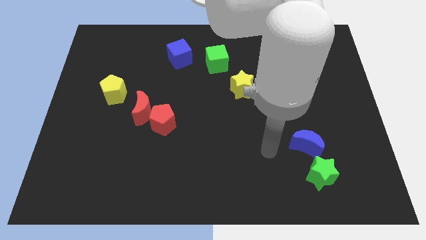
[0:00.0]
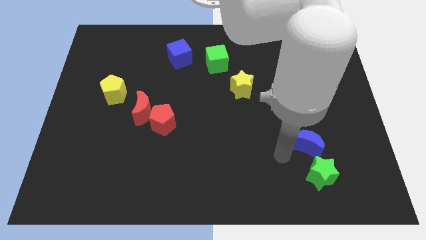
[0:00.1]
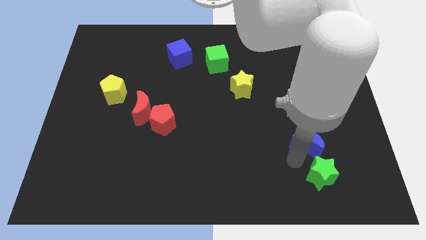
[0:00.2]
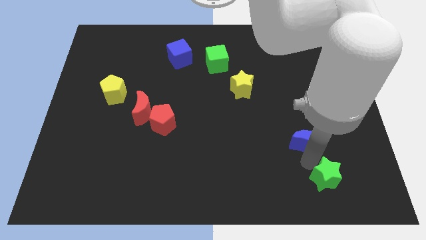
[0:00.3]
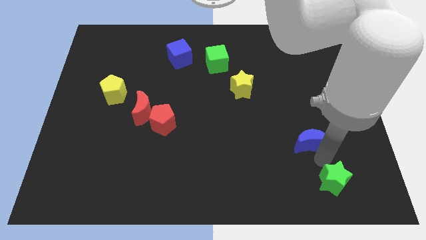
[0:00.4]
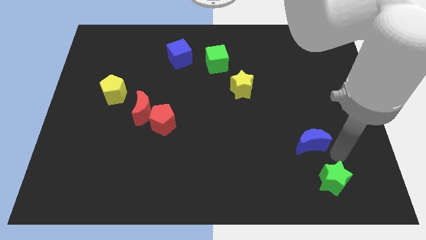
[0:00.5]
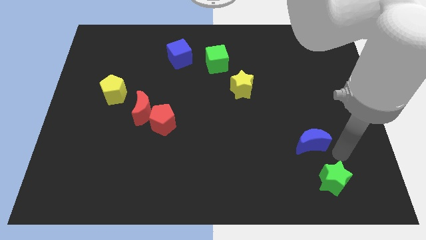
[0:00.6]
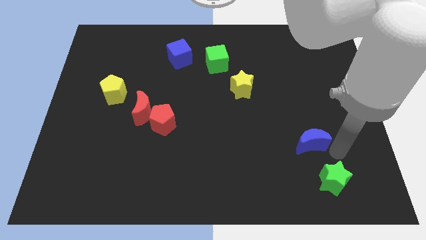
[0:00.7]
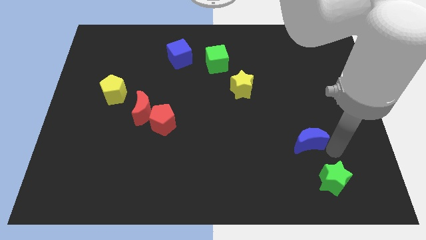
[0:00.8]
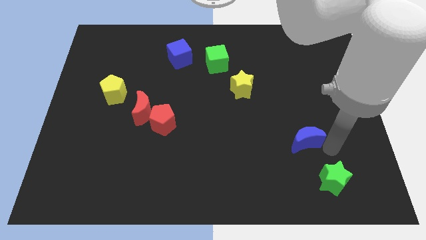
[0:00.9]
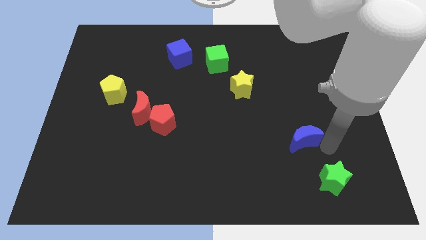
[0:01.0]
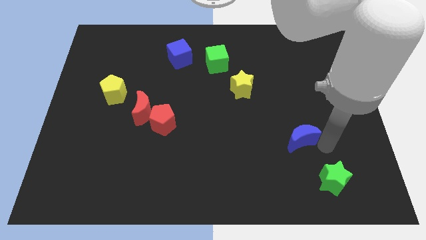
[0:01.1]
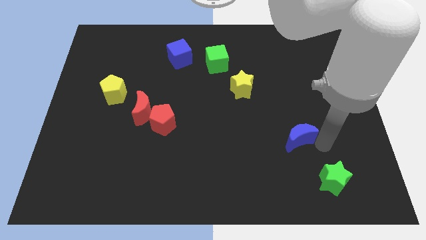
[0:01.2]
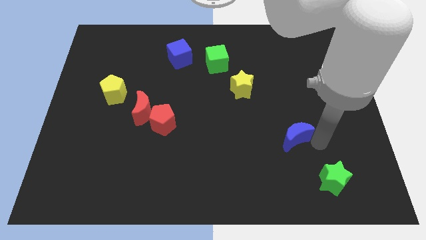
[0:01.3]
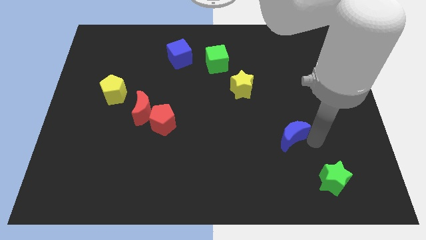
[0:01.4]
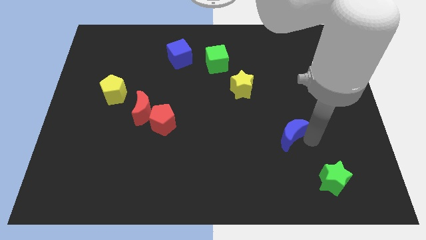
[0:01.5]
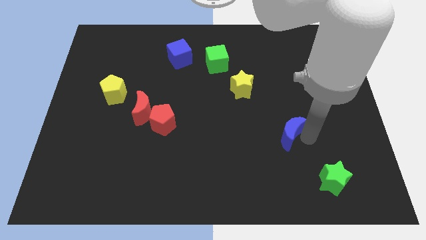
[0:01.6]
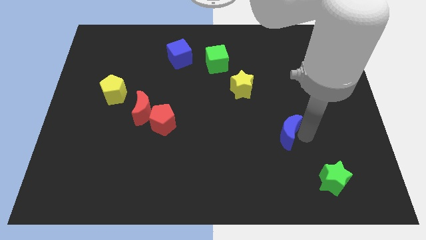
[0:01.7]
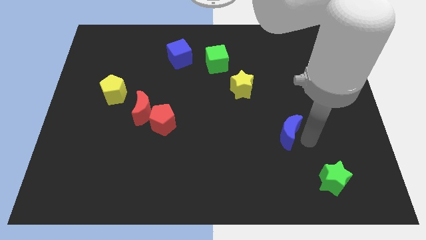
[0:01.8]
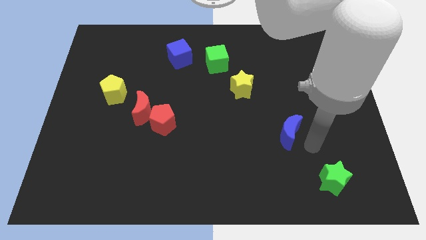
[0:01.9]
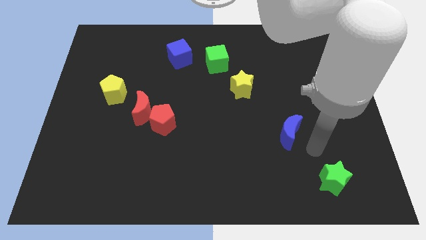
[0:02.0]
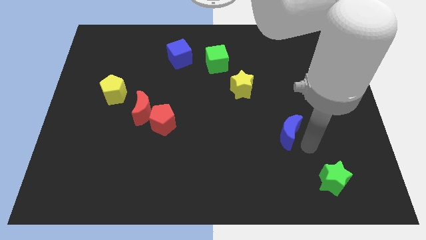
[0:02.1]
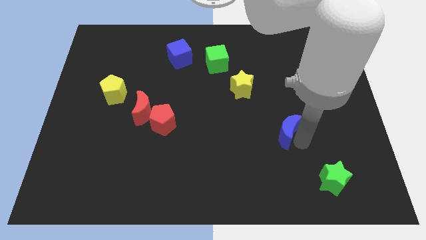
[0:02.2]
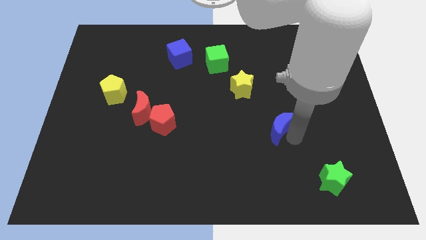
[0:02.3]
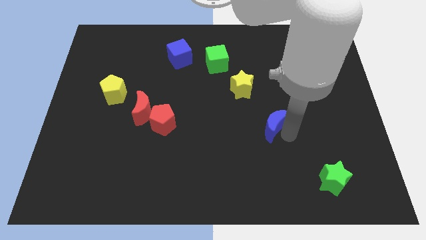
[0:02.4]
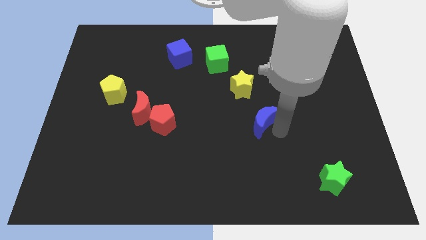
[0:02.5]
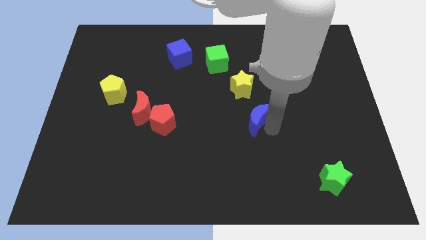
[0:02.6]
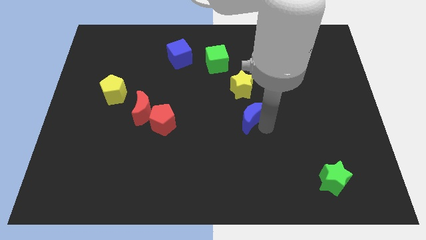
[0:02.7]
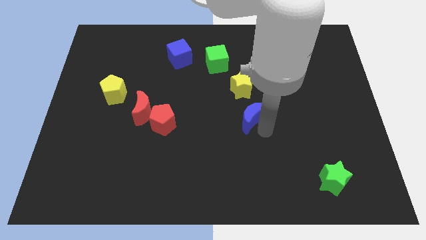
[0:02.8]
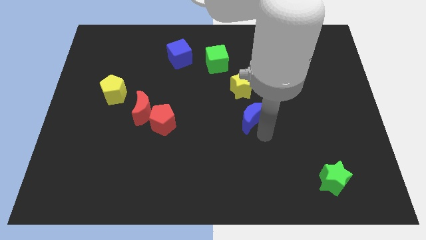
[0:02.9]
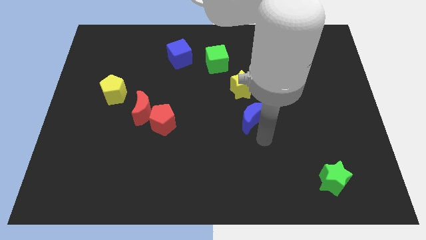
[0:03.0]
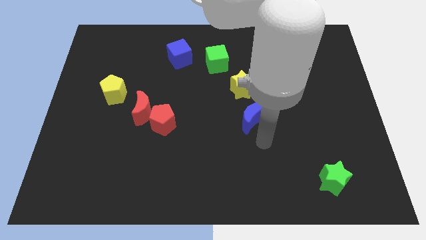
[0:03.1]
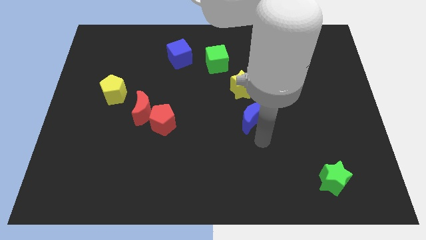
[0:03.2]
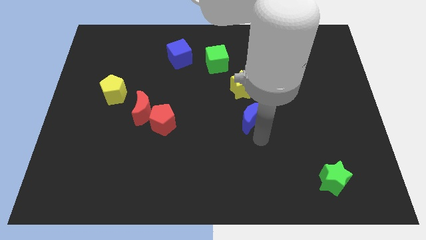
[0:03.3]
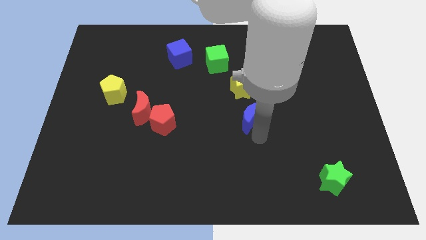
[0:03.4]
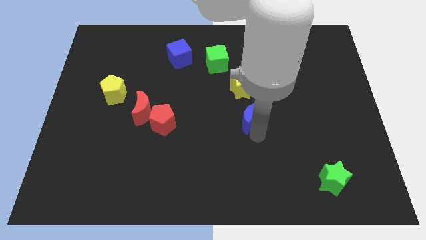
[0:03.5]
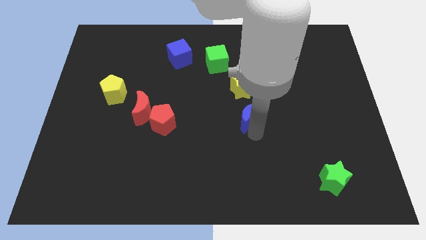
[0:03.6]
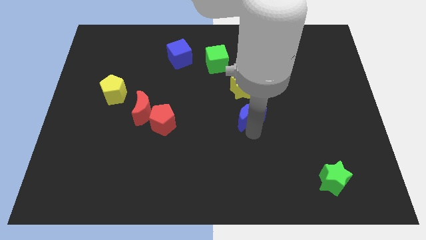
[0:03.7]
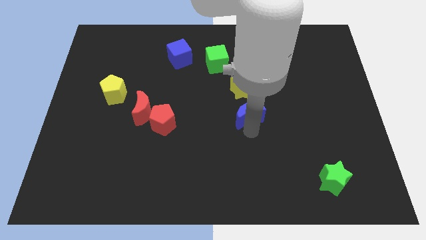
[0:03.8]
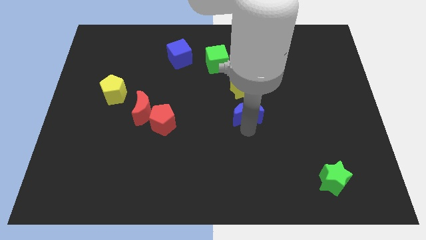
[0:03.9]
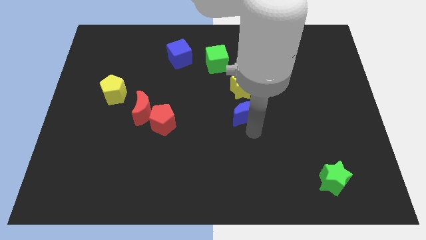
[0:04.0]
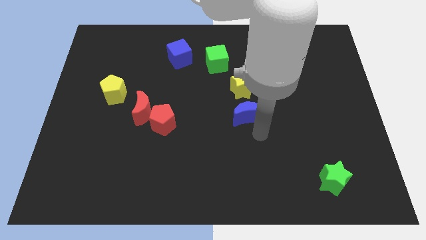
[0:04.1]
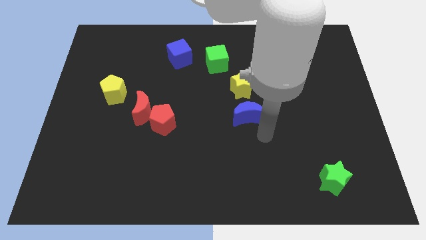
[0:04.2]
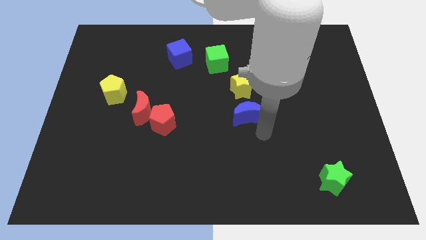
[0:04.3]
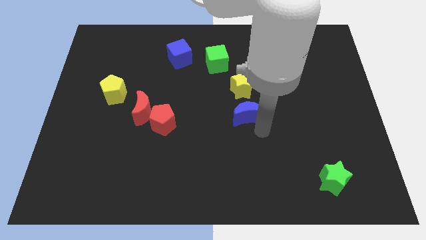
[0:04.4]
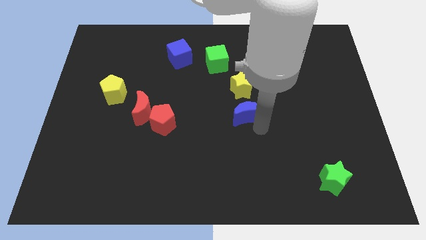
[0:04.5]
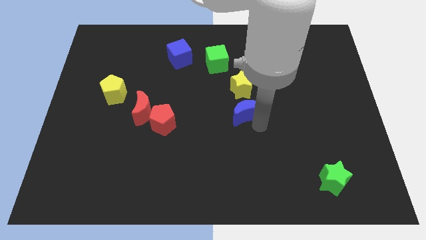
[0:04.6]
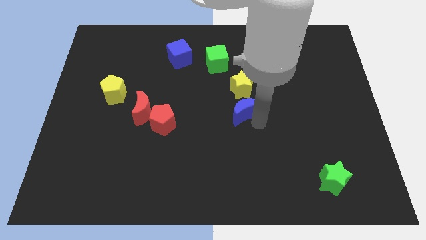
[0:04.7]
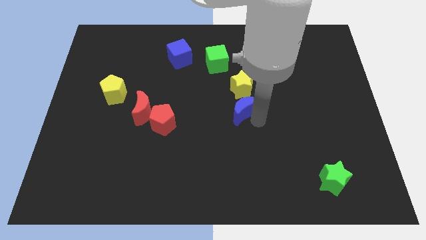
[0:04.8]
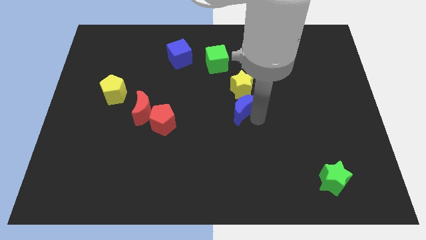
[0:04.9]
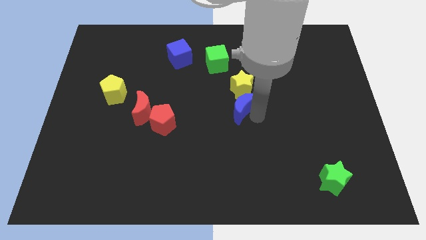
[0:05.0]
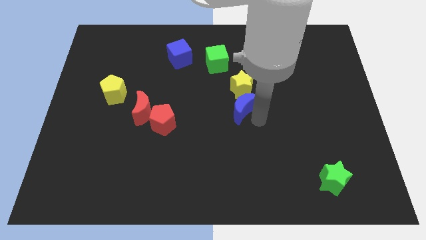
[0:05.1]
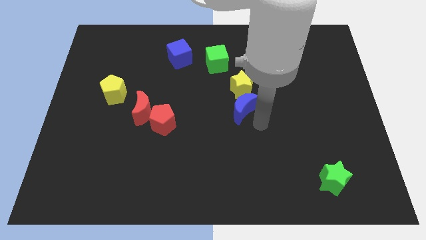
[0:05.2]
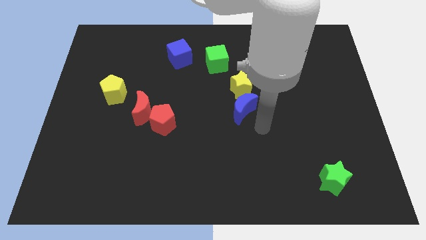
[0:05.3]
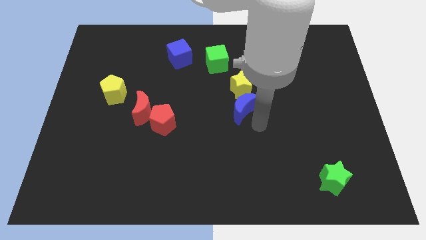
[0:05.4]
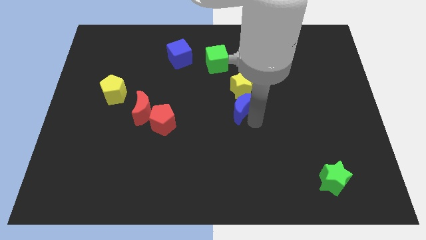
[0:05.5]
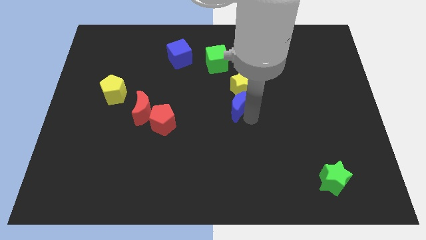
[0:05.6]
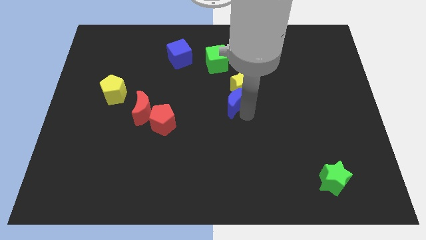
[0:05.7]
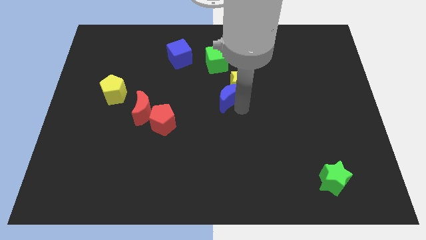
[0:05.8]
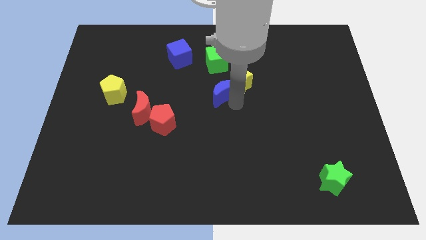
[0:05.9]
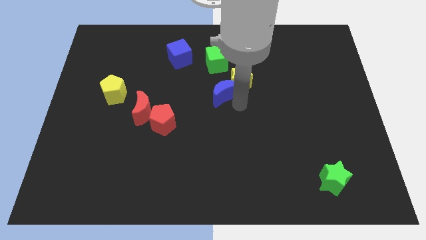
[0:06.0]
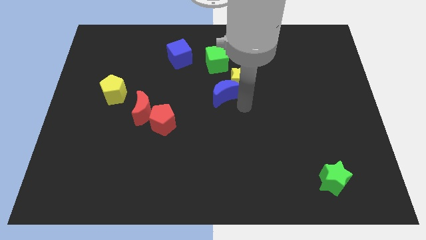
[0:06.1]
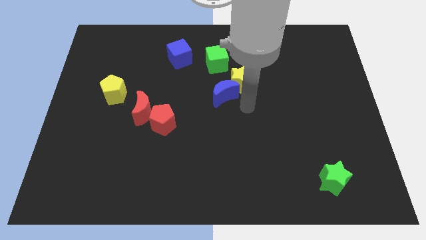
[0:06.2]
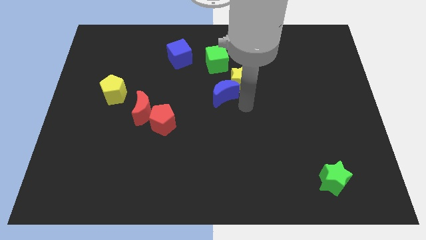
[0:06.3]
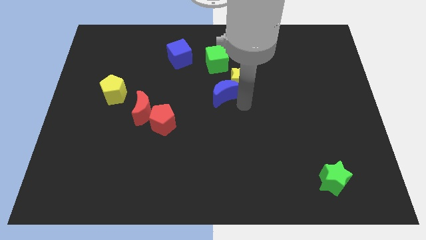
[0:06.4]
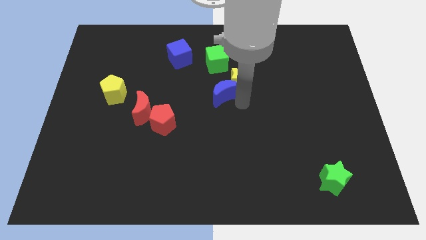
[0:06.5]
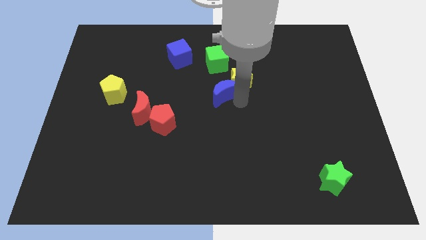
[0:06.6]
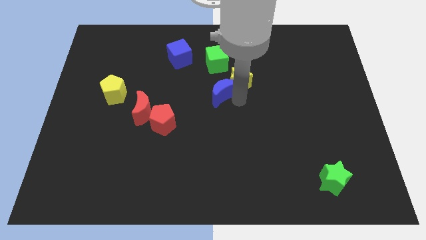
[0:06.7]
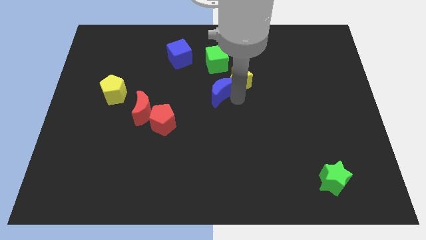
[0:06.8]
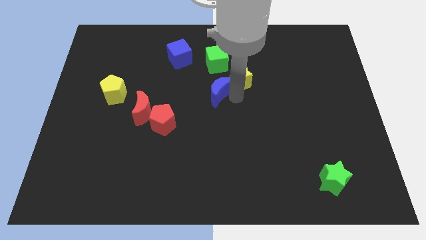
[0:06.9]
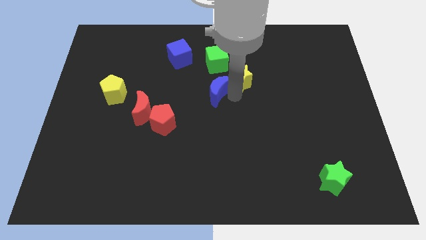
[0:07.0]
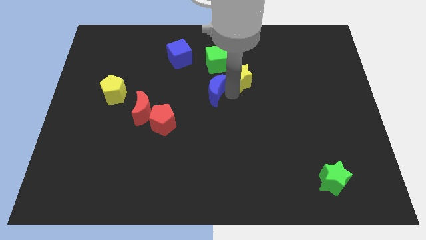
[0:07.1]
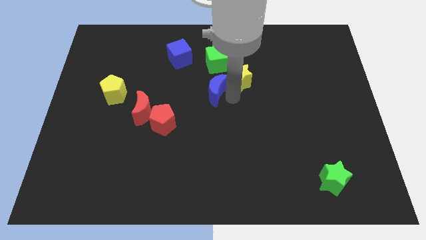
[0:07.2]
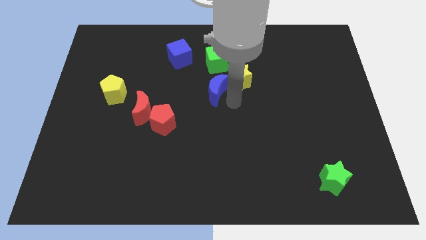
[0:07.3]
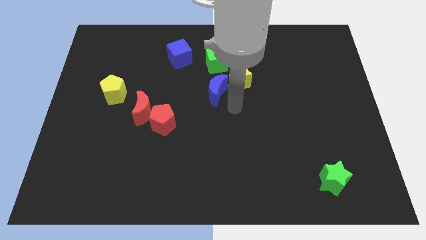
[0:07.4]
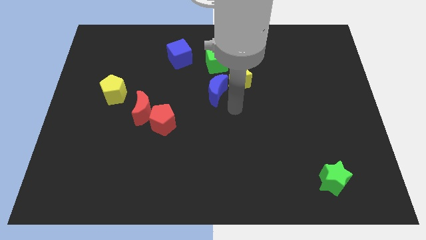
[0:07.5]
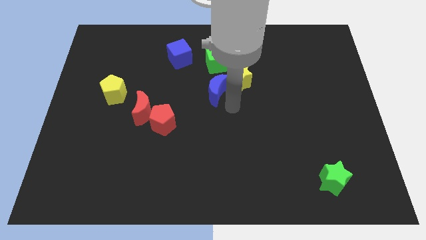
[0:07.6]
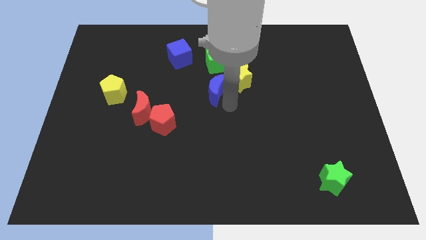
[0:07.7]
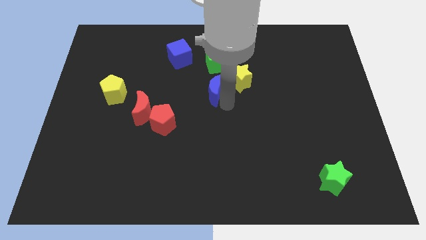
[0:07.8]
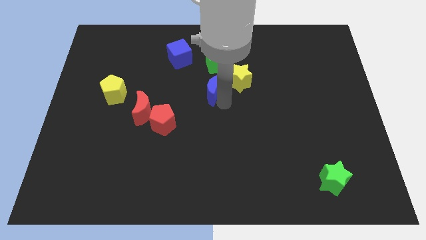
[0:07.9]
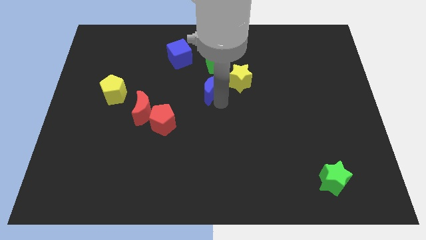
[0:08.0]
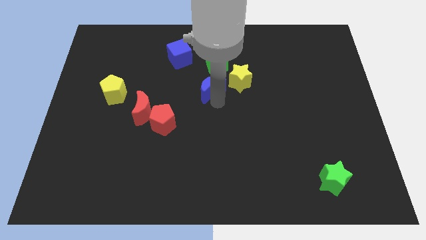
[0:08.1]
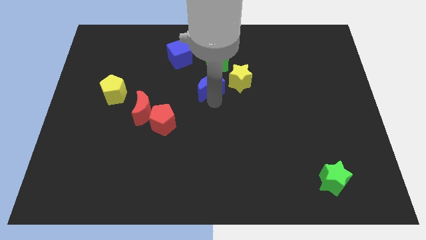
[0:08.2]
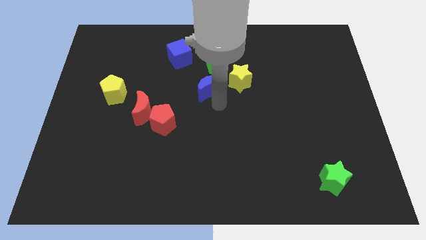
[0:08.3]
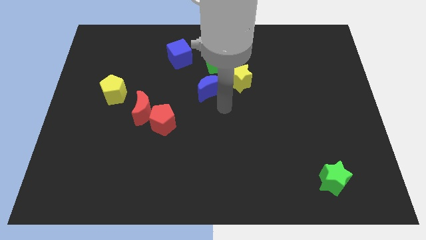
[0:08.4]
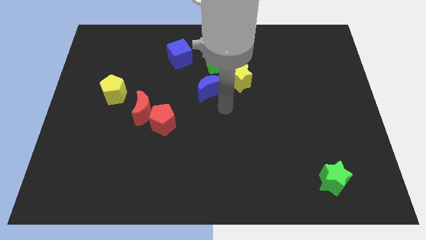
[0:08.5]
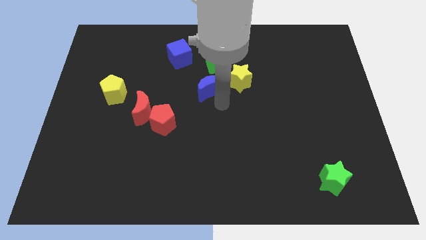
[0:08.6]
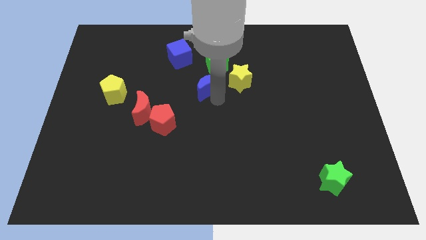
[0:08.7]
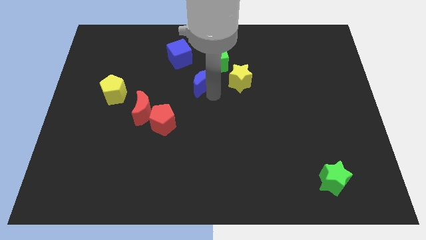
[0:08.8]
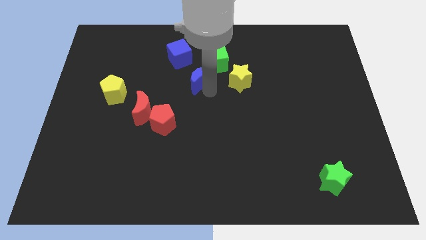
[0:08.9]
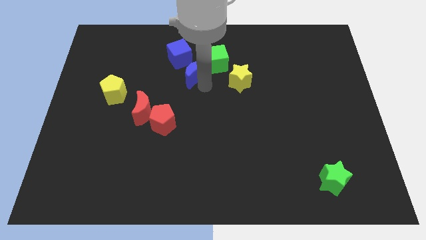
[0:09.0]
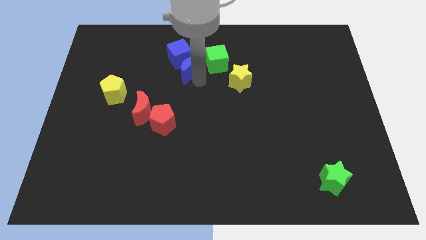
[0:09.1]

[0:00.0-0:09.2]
slide the blue moon to the blue cube
